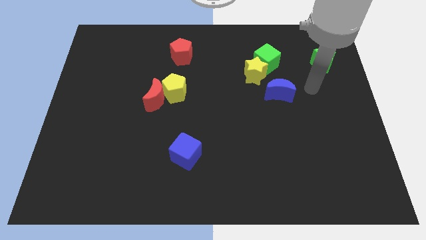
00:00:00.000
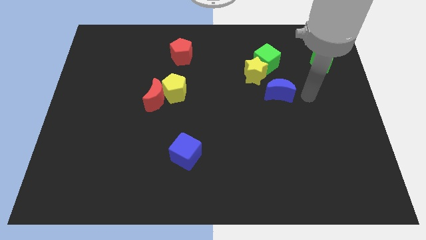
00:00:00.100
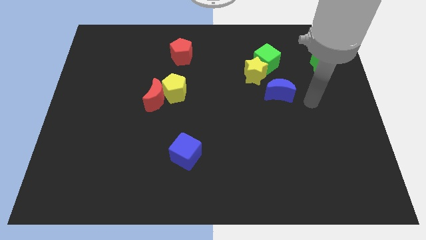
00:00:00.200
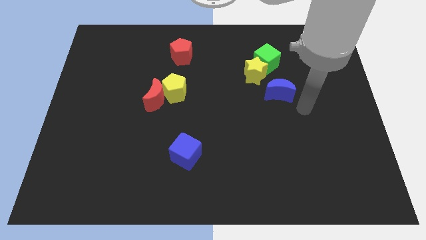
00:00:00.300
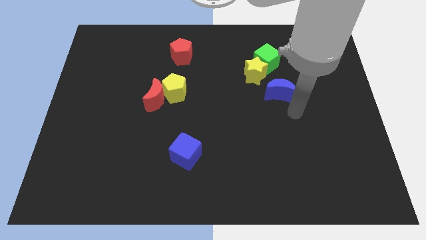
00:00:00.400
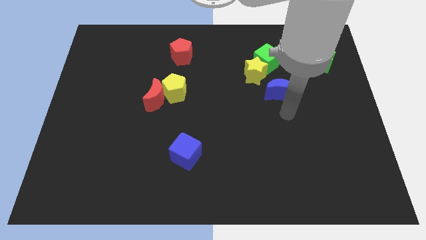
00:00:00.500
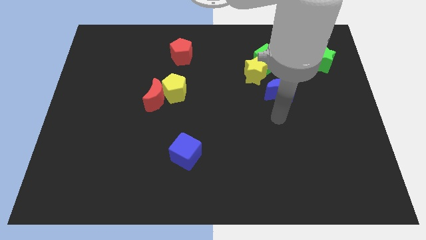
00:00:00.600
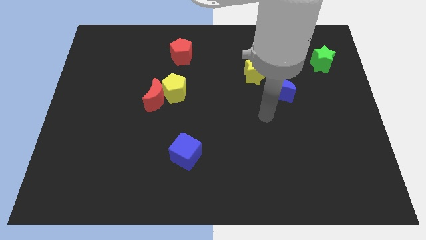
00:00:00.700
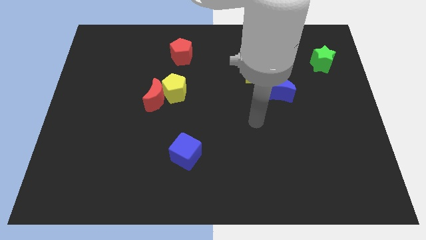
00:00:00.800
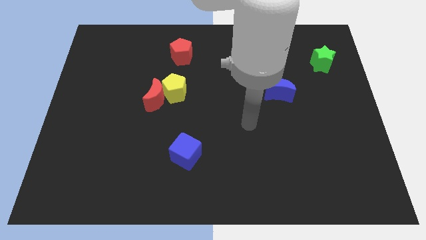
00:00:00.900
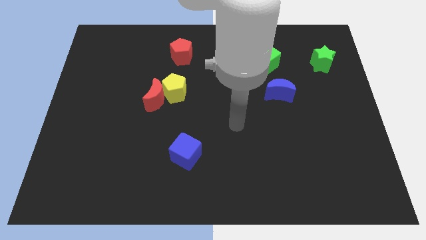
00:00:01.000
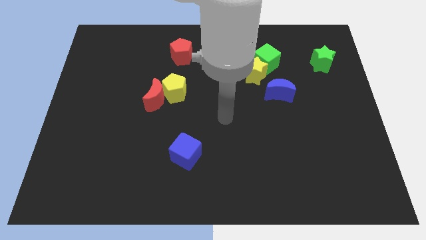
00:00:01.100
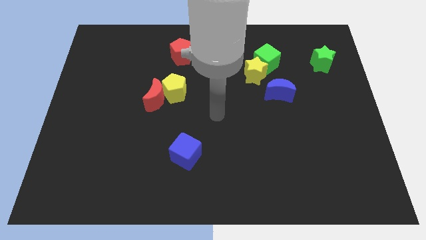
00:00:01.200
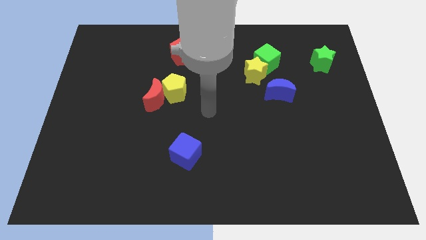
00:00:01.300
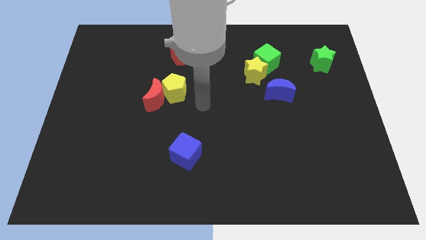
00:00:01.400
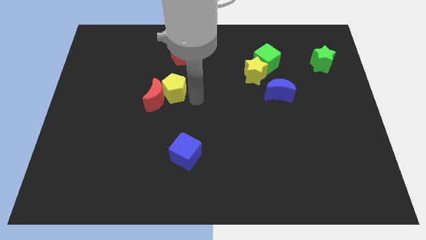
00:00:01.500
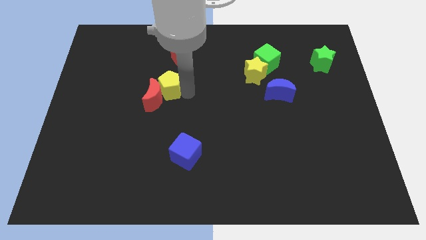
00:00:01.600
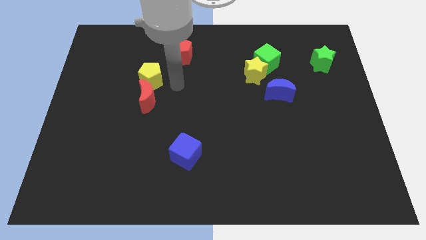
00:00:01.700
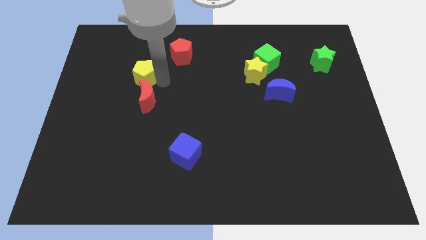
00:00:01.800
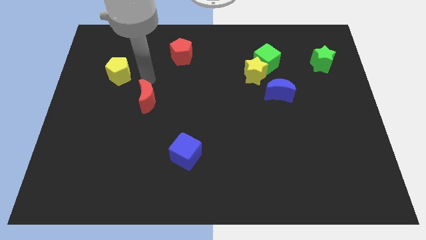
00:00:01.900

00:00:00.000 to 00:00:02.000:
separate the red moon from the yellow pentagon

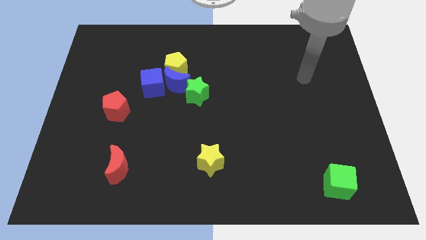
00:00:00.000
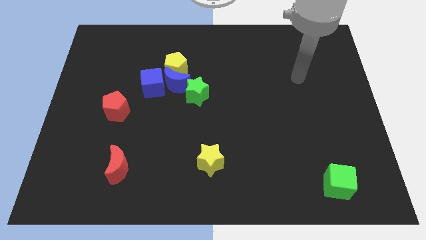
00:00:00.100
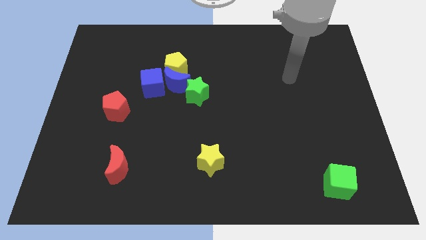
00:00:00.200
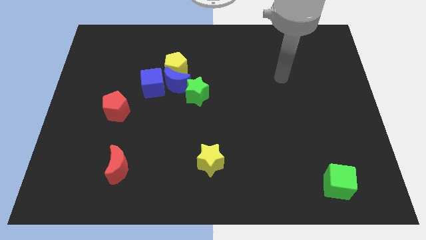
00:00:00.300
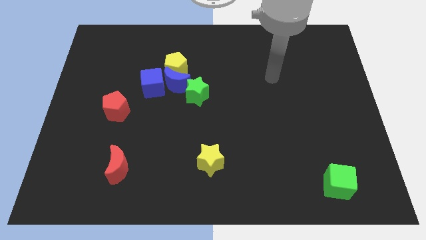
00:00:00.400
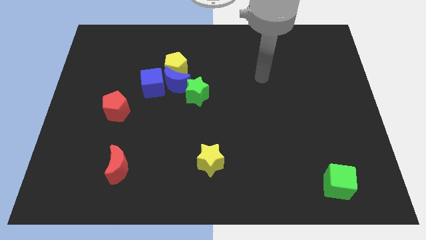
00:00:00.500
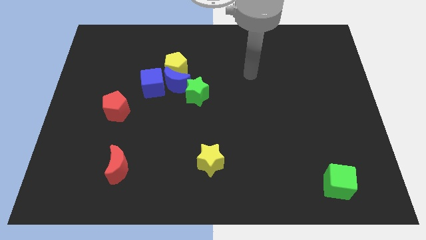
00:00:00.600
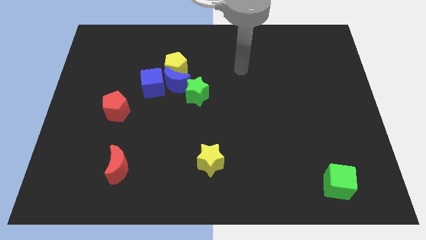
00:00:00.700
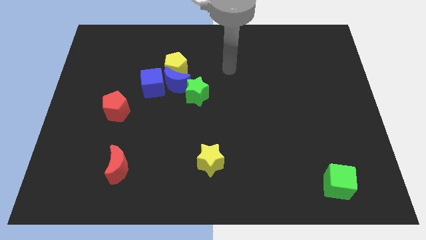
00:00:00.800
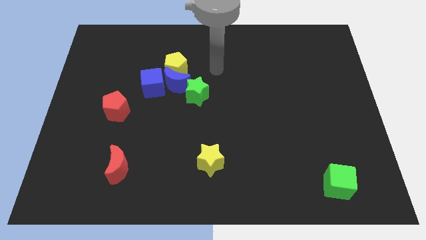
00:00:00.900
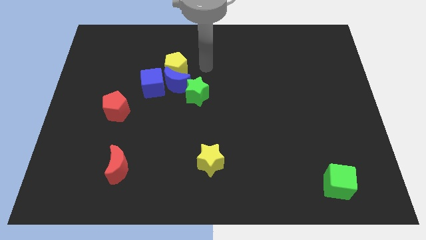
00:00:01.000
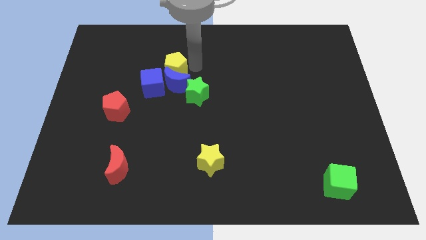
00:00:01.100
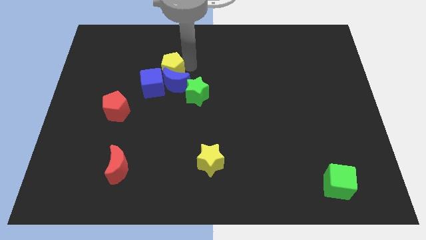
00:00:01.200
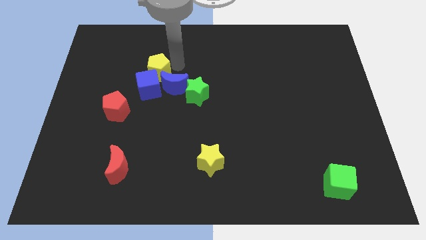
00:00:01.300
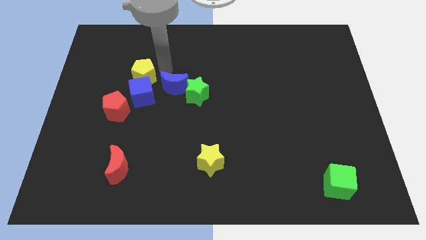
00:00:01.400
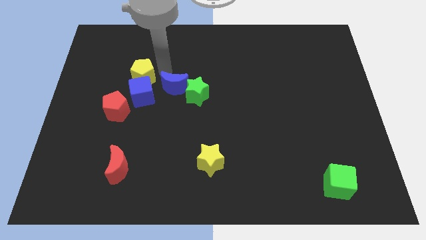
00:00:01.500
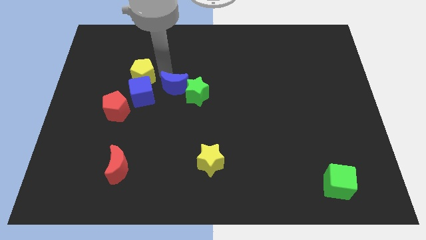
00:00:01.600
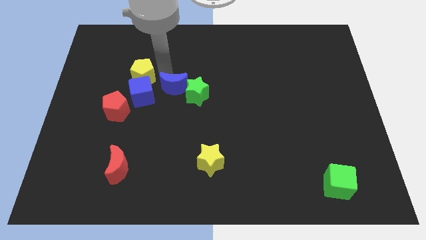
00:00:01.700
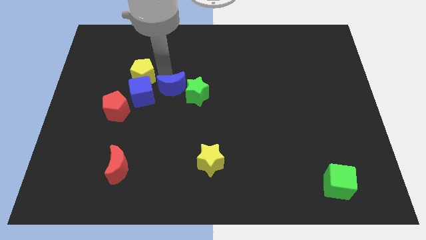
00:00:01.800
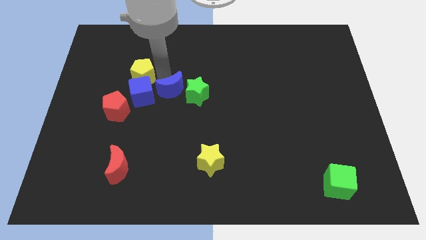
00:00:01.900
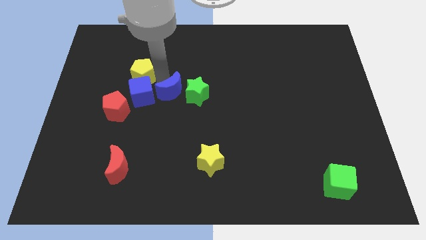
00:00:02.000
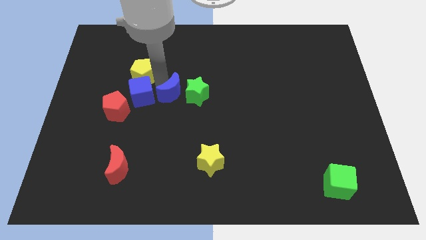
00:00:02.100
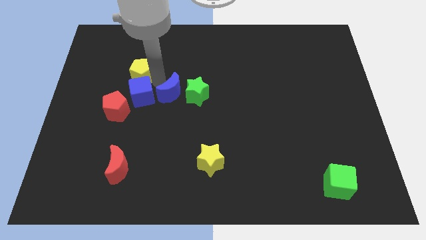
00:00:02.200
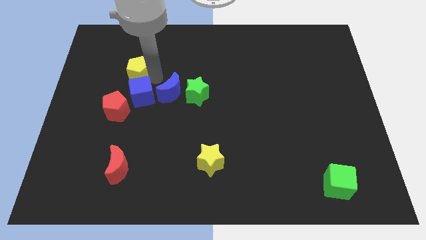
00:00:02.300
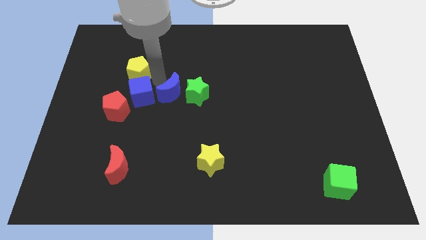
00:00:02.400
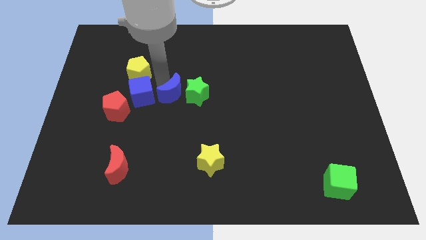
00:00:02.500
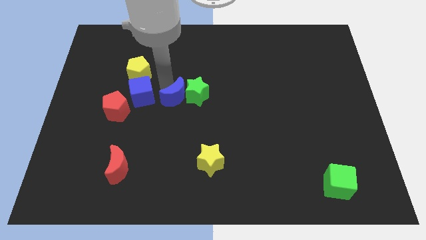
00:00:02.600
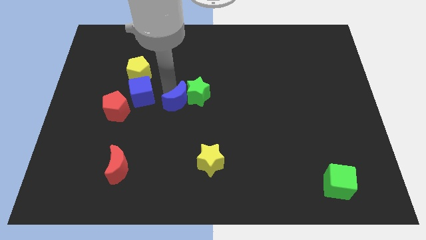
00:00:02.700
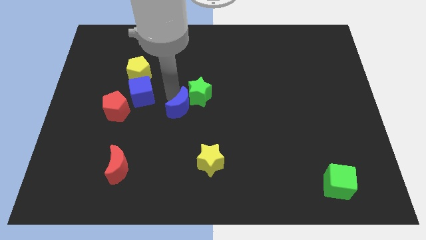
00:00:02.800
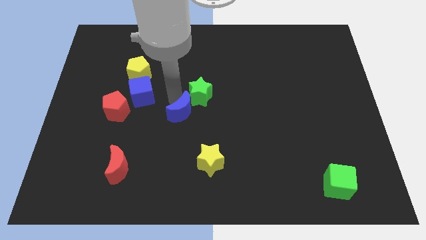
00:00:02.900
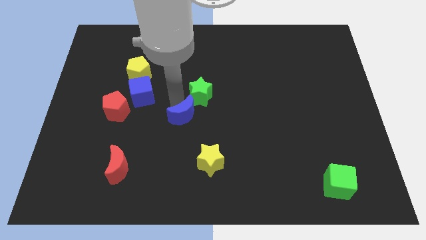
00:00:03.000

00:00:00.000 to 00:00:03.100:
pull the blue moon apart from the clump

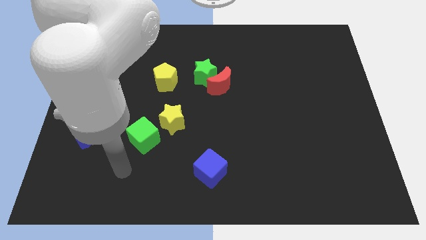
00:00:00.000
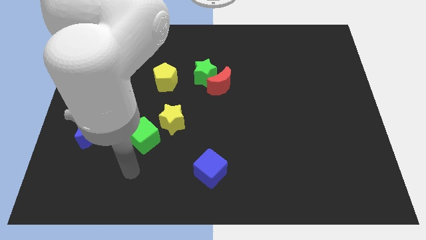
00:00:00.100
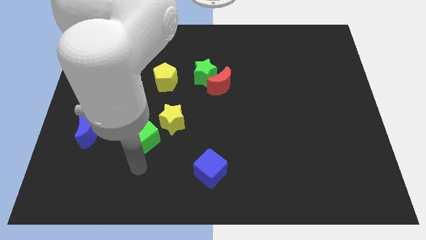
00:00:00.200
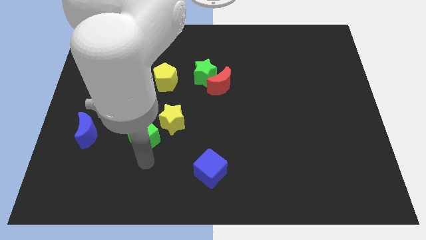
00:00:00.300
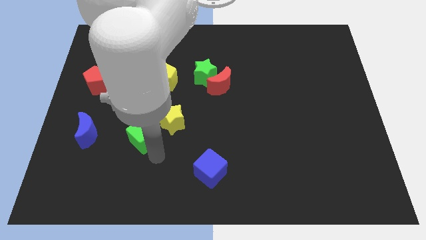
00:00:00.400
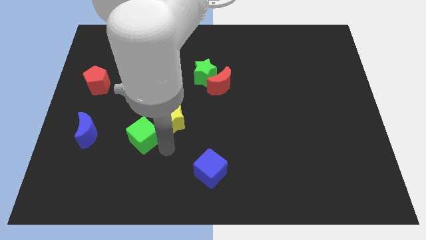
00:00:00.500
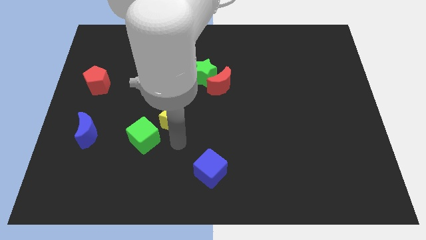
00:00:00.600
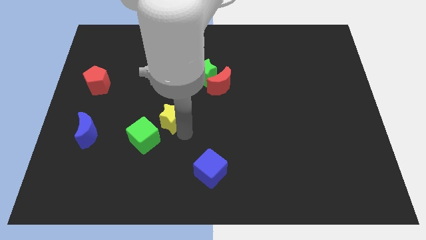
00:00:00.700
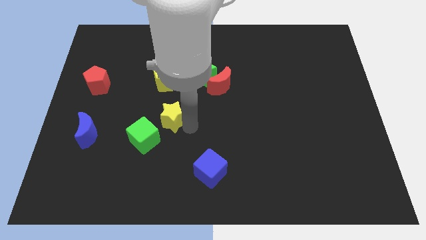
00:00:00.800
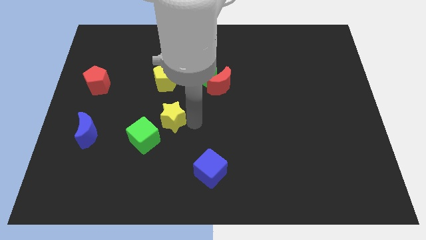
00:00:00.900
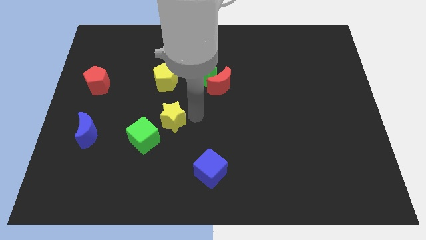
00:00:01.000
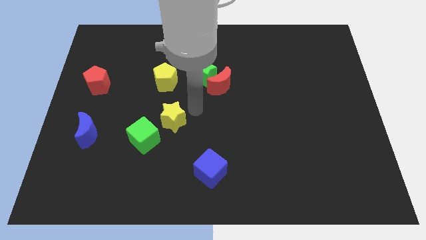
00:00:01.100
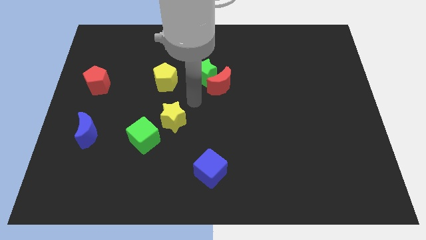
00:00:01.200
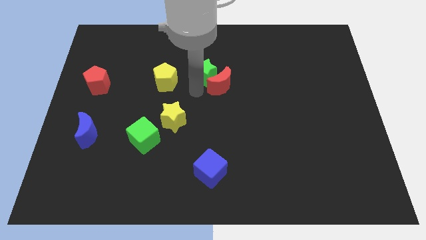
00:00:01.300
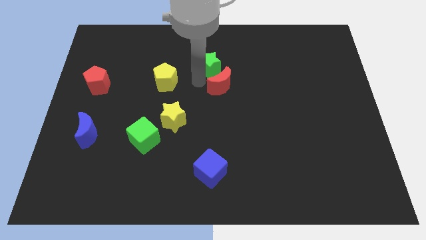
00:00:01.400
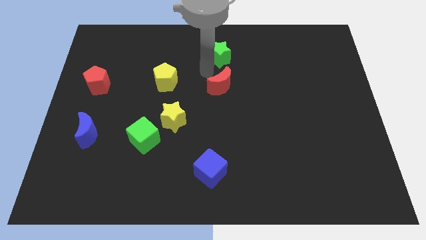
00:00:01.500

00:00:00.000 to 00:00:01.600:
pull the red moon apart from the green star

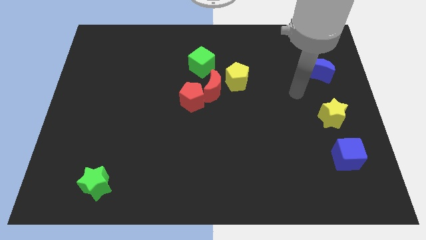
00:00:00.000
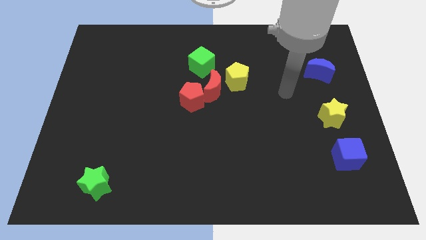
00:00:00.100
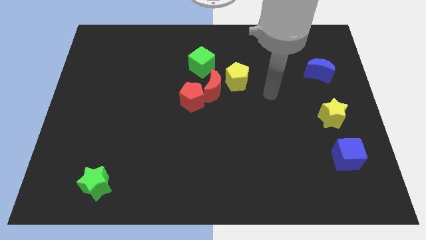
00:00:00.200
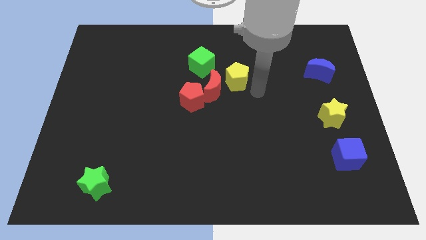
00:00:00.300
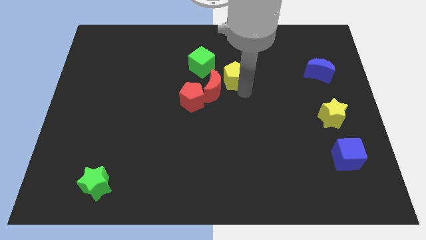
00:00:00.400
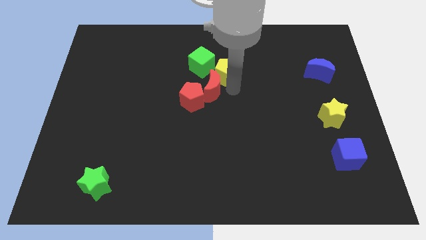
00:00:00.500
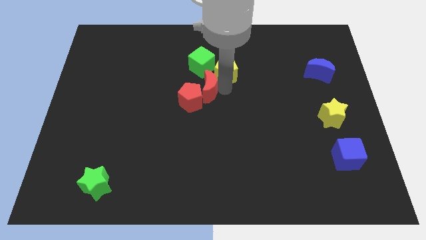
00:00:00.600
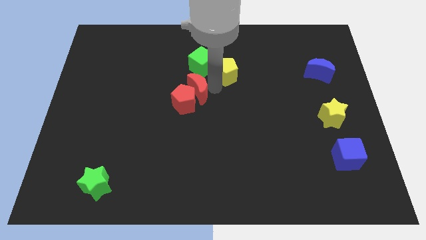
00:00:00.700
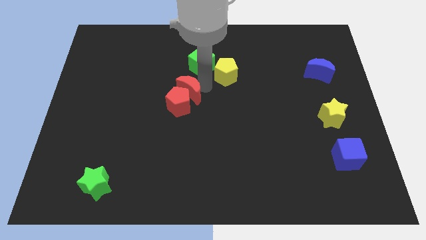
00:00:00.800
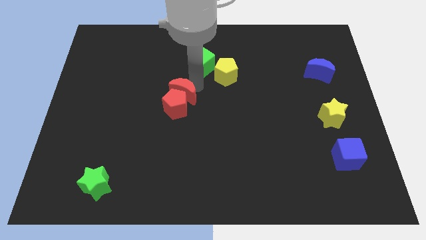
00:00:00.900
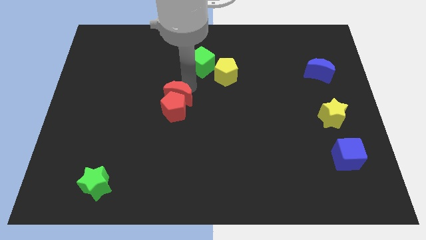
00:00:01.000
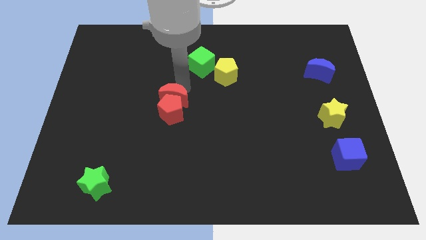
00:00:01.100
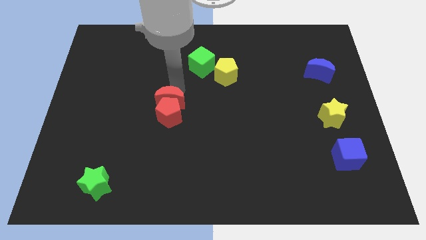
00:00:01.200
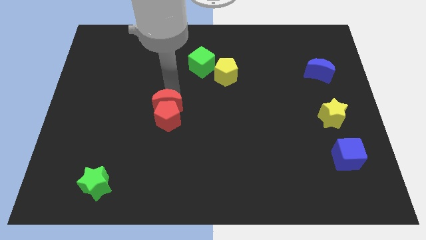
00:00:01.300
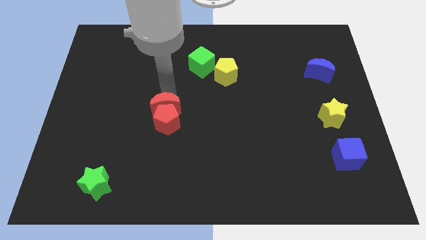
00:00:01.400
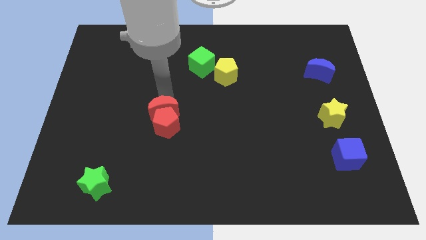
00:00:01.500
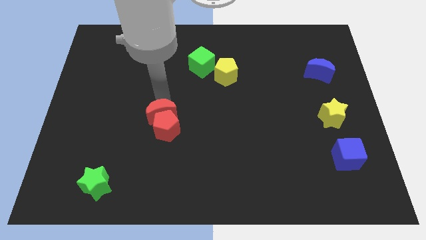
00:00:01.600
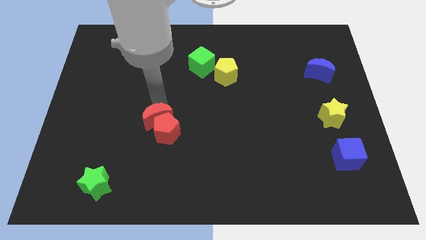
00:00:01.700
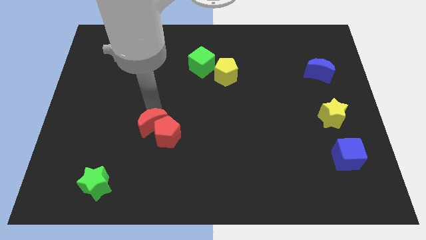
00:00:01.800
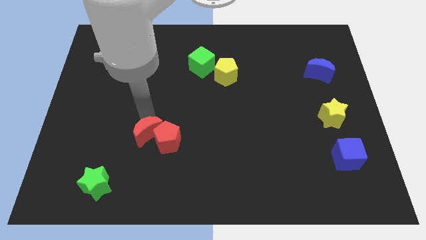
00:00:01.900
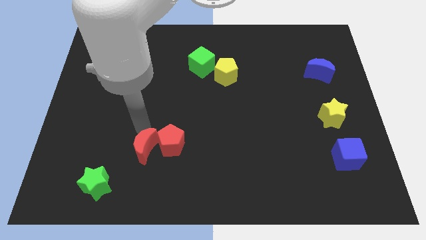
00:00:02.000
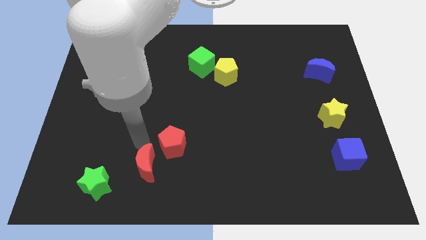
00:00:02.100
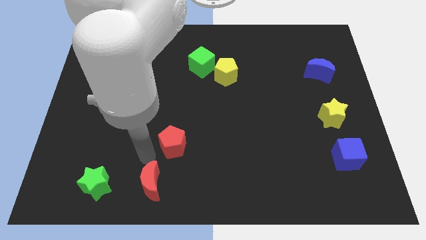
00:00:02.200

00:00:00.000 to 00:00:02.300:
separate the red pentagon from the red moon

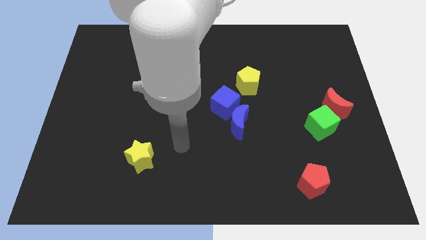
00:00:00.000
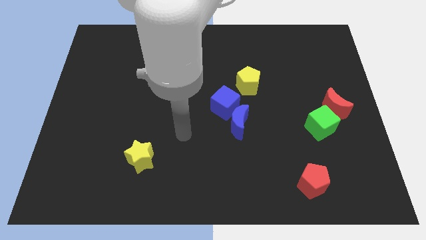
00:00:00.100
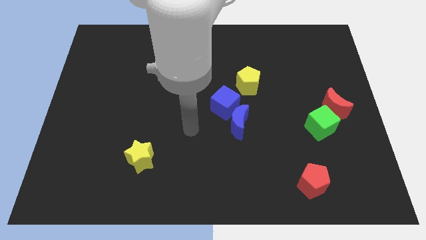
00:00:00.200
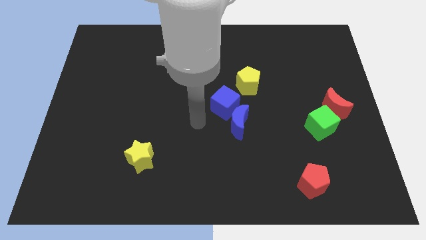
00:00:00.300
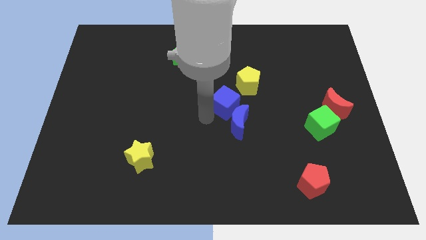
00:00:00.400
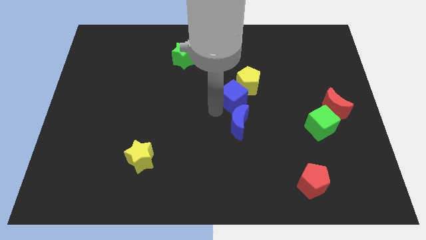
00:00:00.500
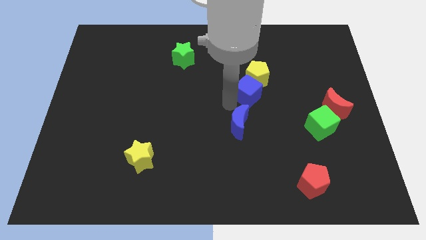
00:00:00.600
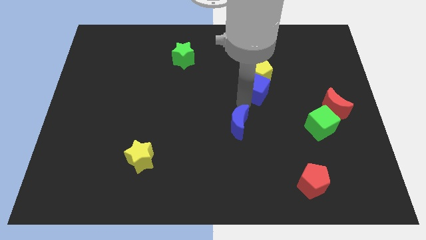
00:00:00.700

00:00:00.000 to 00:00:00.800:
separate the blue moon from the blue cube
